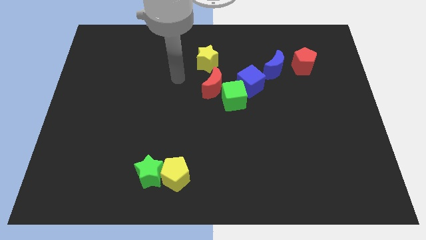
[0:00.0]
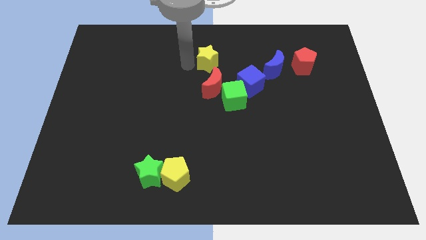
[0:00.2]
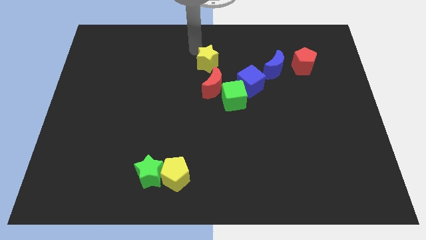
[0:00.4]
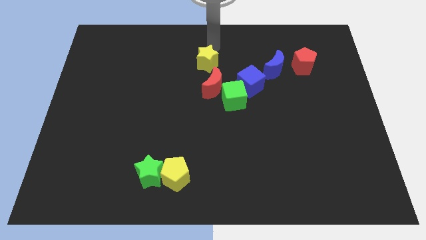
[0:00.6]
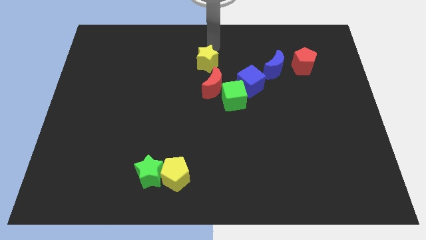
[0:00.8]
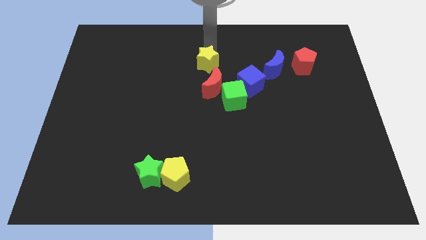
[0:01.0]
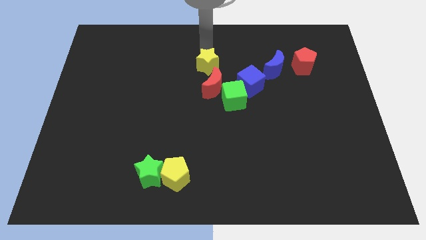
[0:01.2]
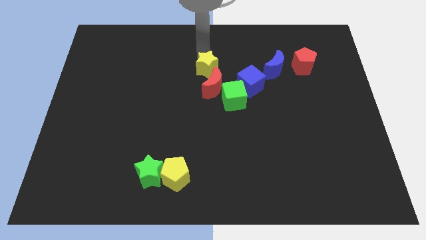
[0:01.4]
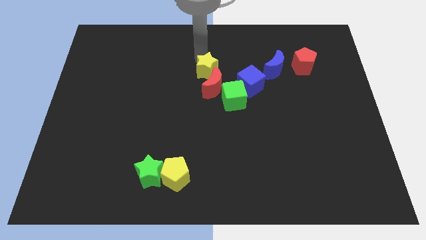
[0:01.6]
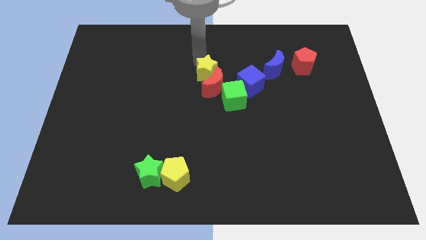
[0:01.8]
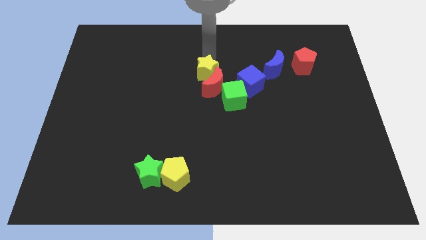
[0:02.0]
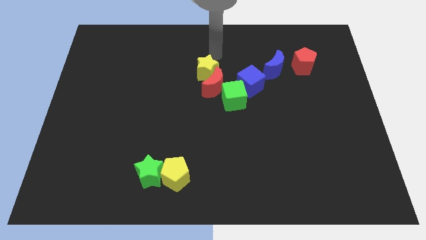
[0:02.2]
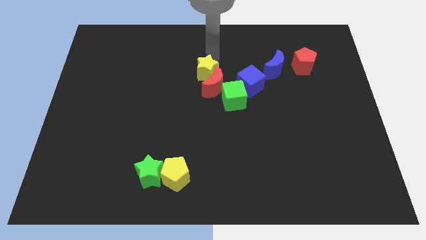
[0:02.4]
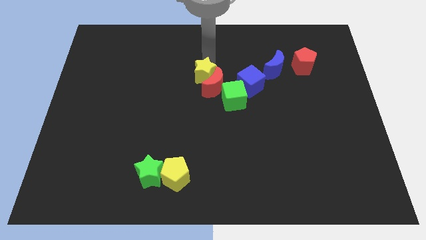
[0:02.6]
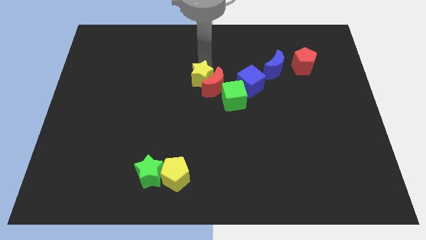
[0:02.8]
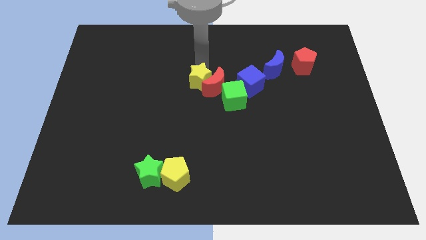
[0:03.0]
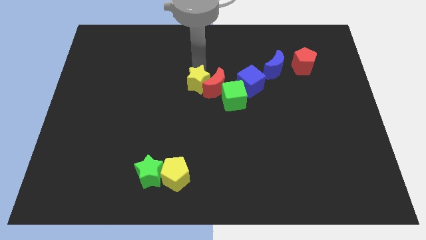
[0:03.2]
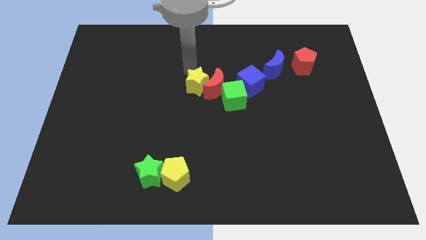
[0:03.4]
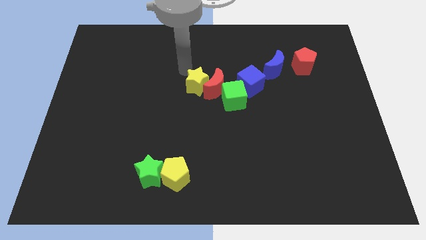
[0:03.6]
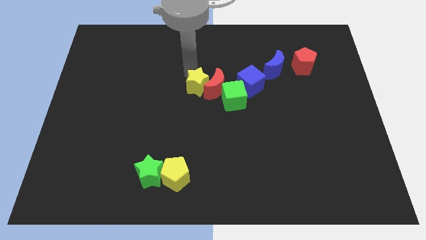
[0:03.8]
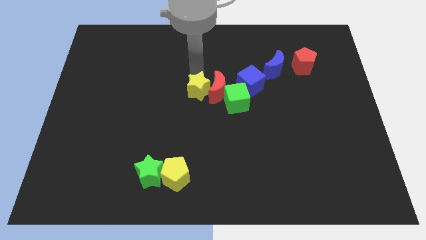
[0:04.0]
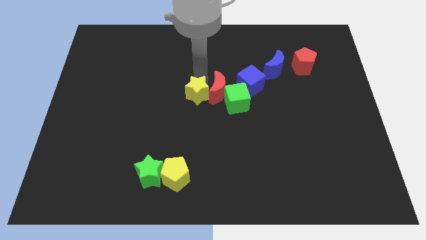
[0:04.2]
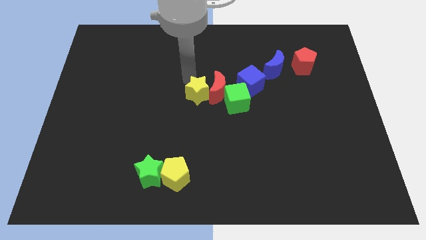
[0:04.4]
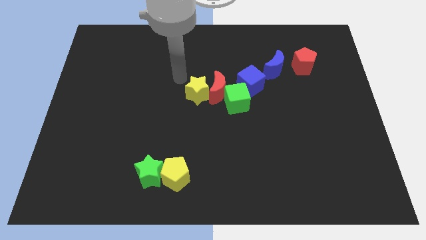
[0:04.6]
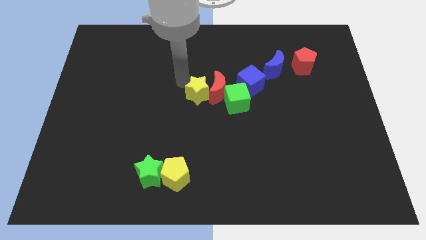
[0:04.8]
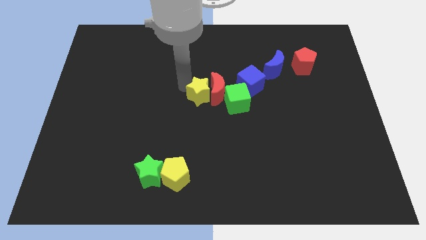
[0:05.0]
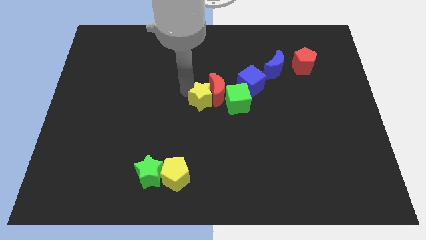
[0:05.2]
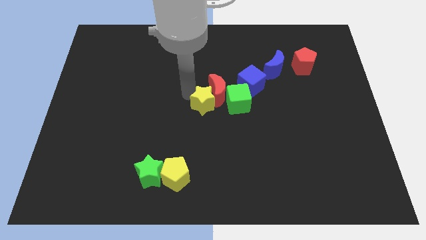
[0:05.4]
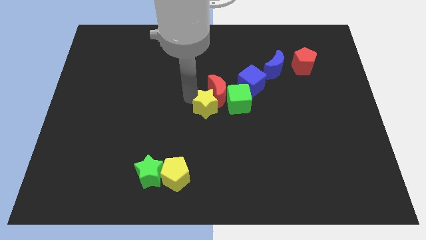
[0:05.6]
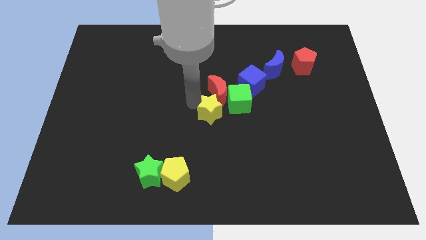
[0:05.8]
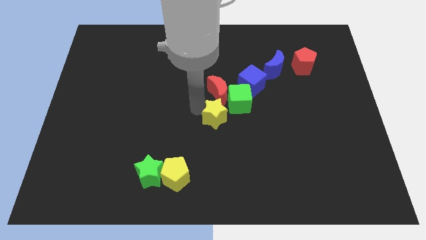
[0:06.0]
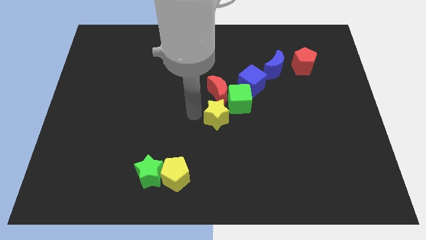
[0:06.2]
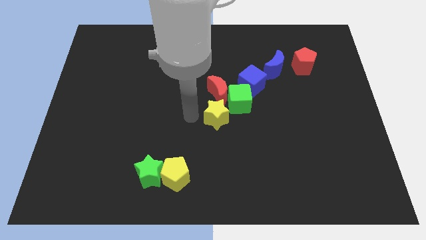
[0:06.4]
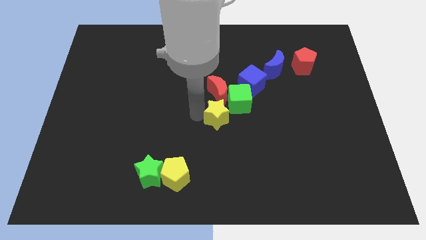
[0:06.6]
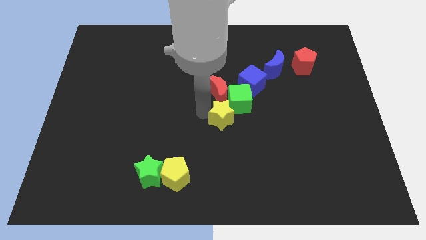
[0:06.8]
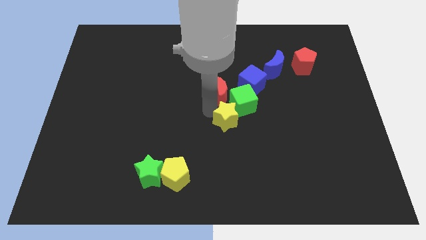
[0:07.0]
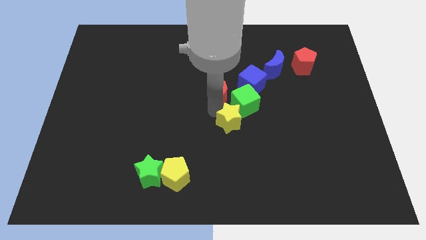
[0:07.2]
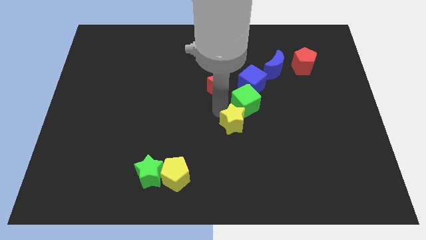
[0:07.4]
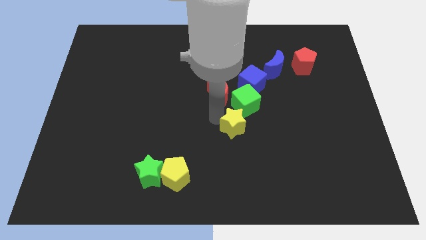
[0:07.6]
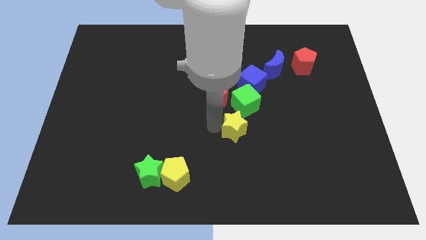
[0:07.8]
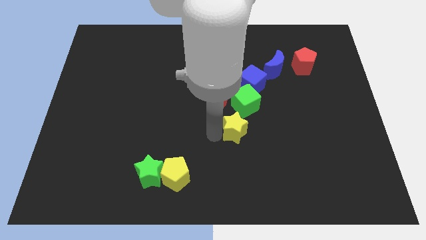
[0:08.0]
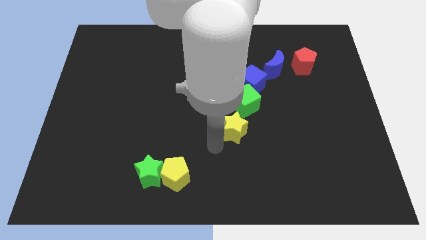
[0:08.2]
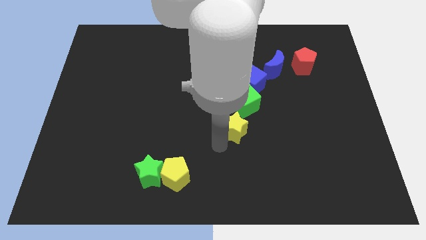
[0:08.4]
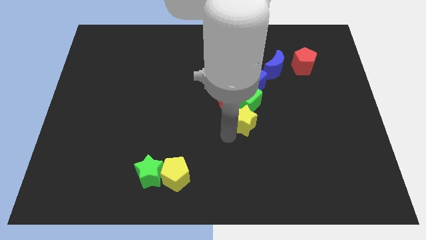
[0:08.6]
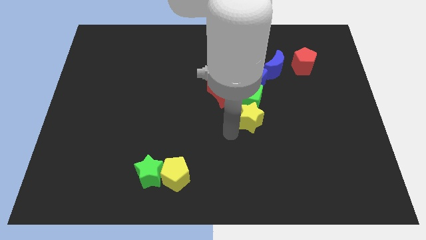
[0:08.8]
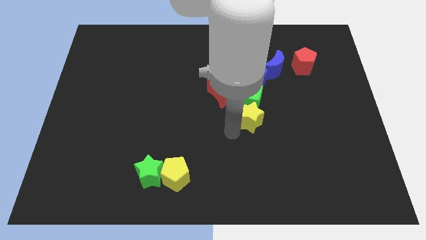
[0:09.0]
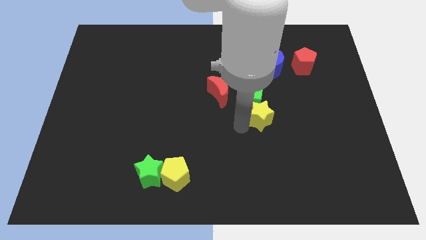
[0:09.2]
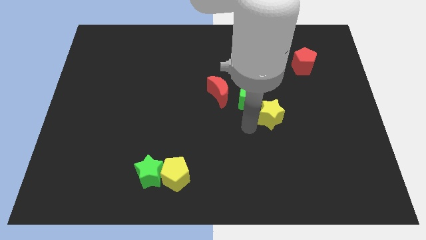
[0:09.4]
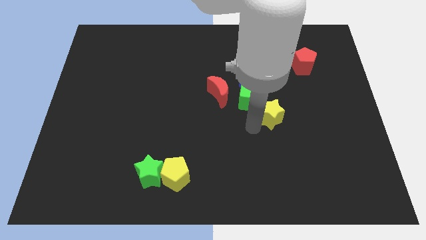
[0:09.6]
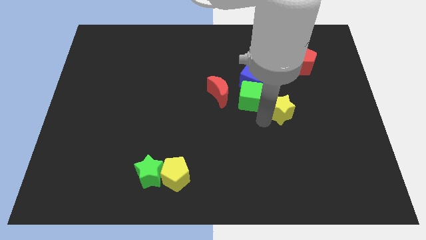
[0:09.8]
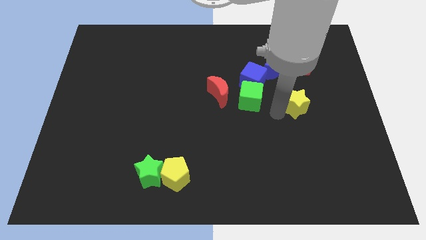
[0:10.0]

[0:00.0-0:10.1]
push the yellow star below the red pentagon

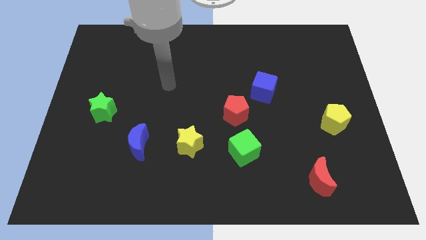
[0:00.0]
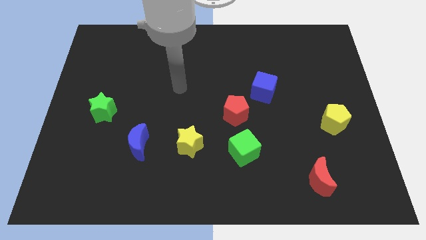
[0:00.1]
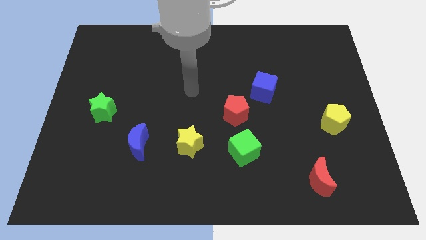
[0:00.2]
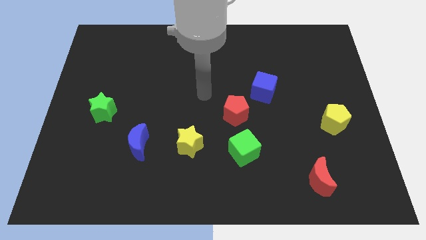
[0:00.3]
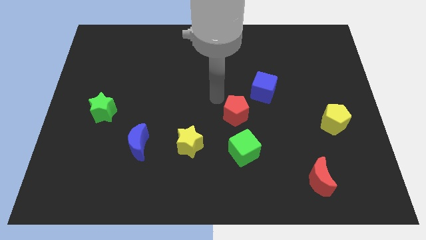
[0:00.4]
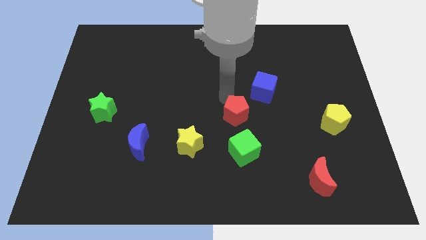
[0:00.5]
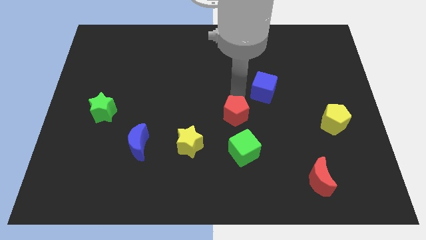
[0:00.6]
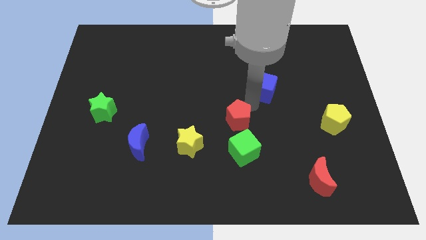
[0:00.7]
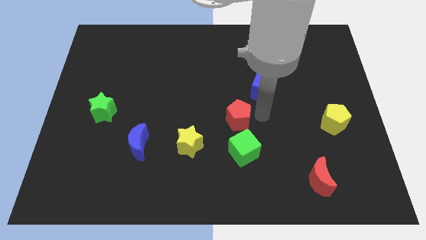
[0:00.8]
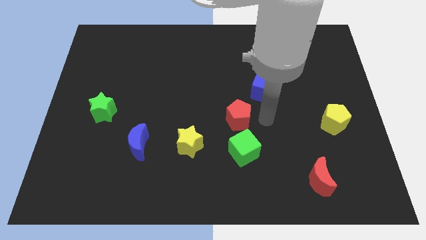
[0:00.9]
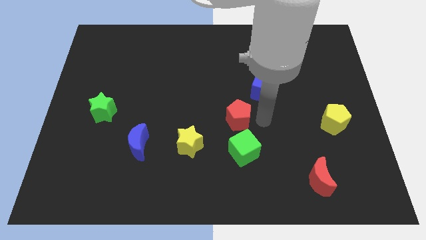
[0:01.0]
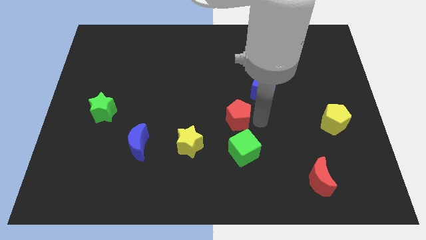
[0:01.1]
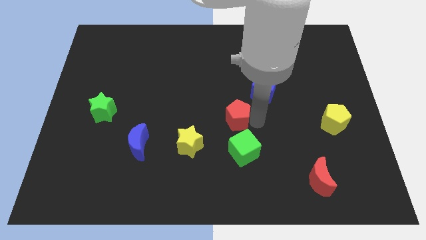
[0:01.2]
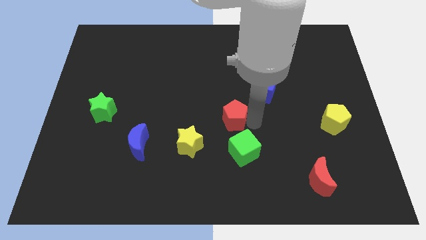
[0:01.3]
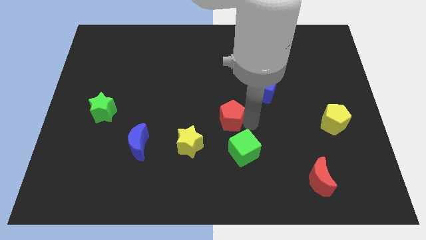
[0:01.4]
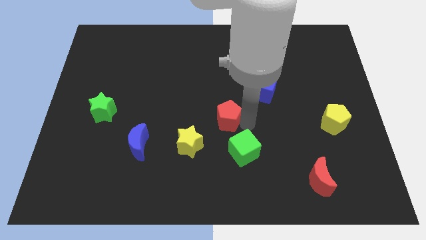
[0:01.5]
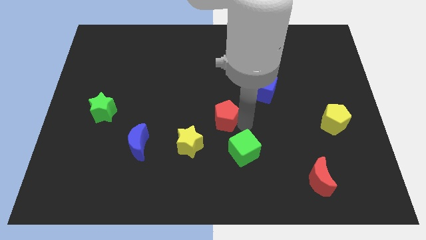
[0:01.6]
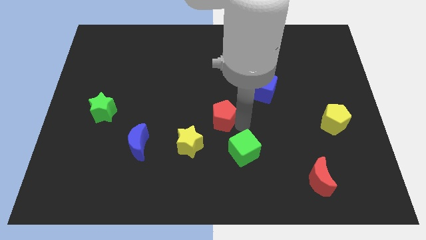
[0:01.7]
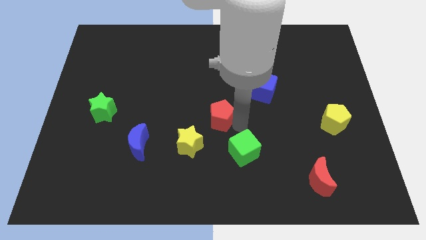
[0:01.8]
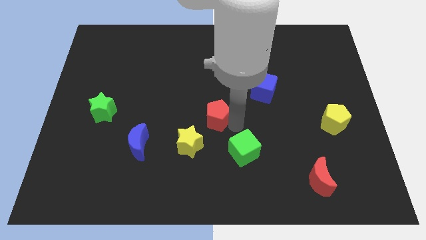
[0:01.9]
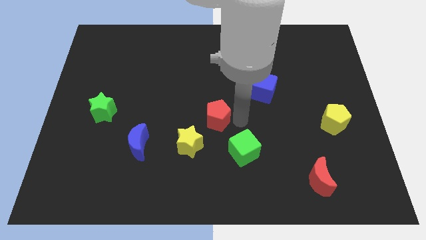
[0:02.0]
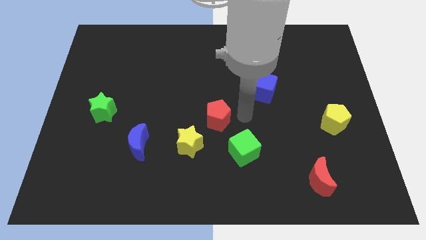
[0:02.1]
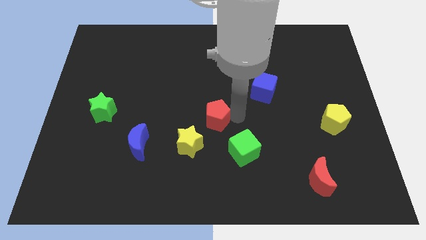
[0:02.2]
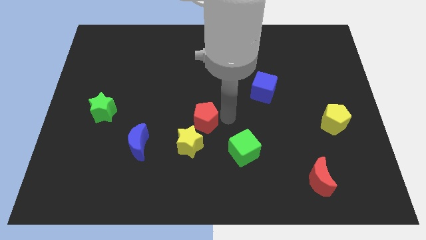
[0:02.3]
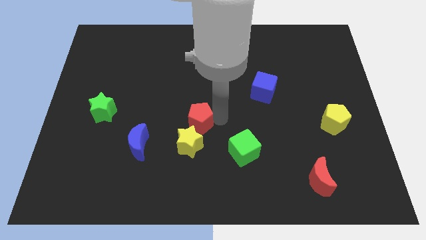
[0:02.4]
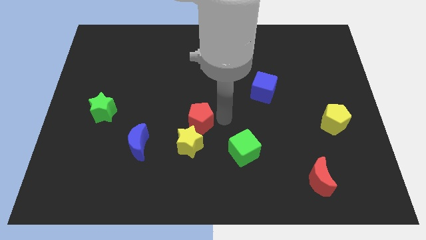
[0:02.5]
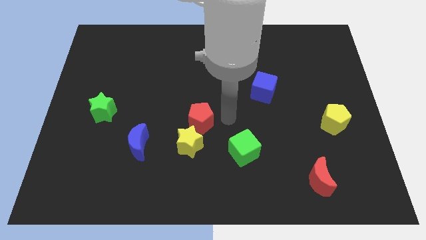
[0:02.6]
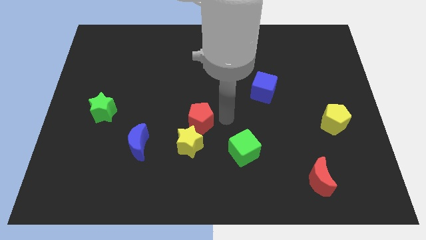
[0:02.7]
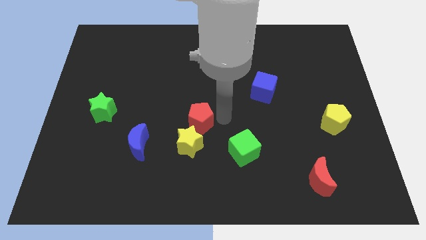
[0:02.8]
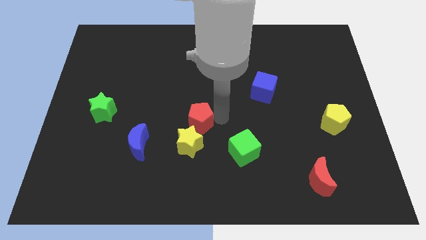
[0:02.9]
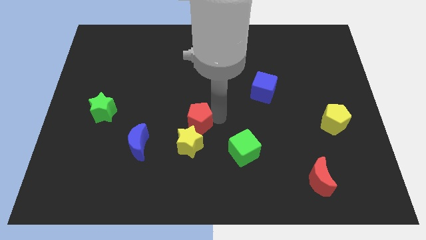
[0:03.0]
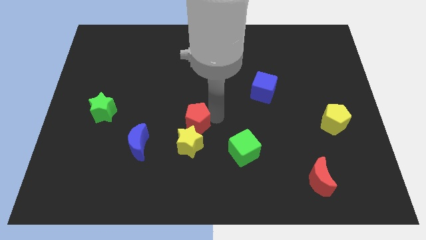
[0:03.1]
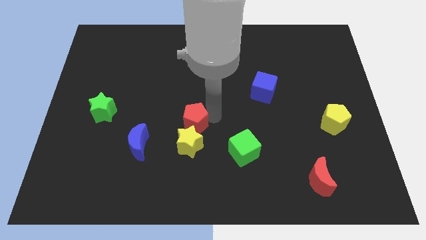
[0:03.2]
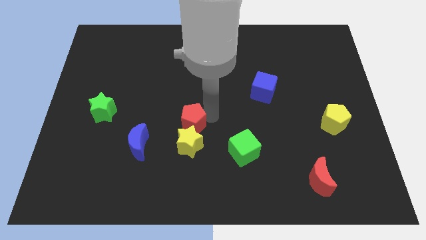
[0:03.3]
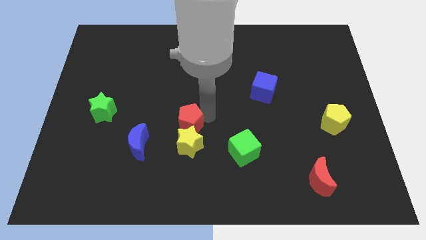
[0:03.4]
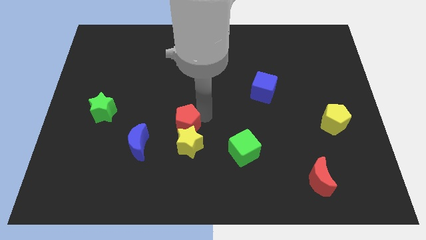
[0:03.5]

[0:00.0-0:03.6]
slide the red pentagon diagonally up and to the right of the blue moon
